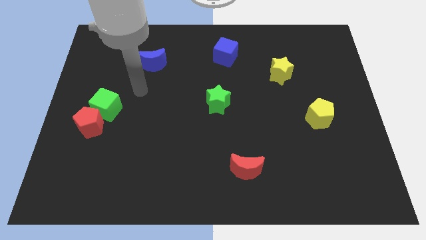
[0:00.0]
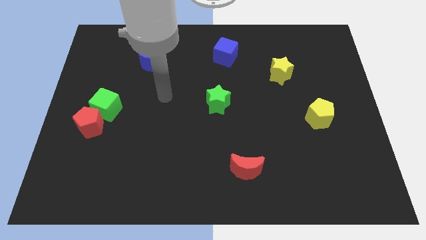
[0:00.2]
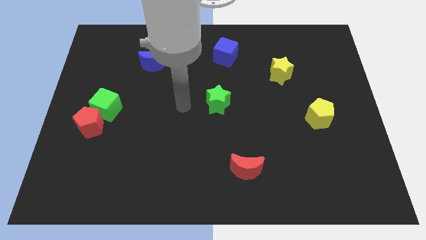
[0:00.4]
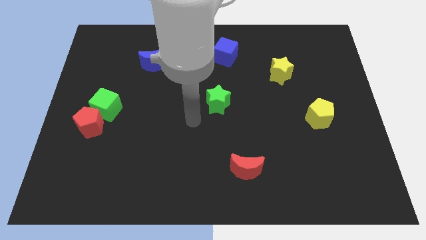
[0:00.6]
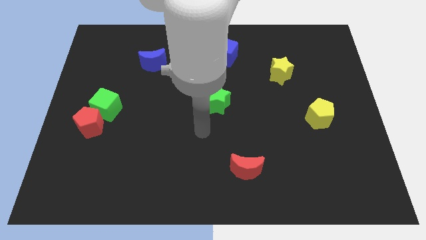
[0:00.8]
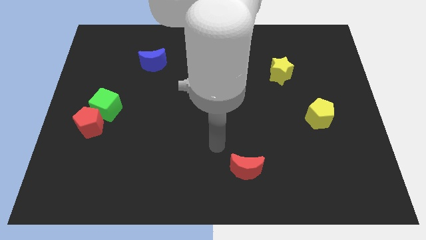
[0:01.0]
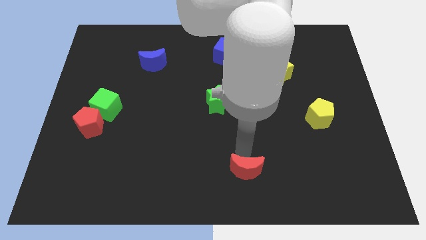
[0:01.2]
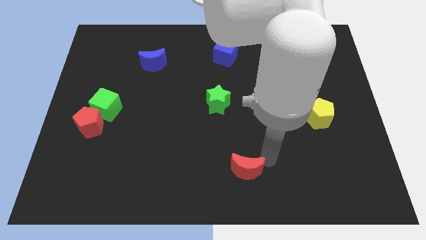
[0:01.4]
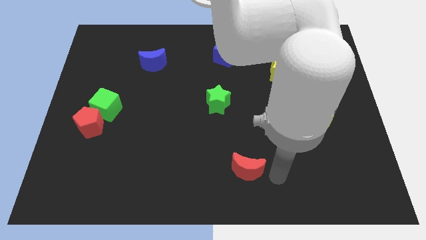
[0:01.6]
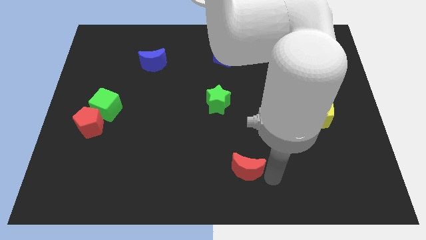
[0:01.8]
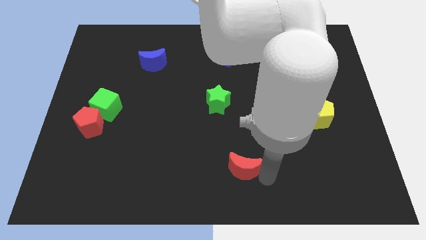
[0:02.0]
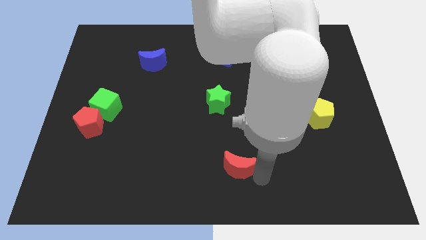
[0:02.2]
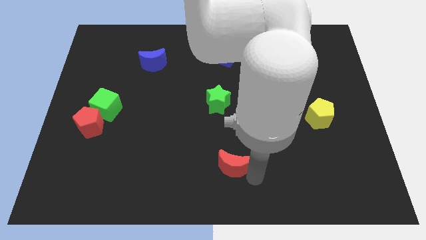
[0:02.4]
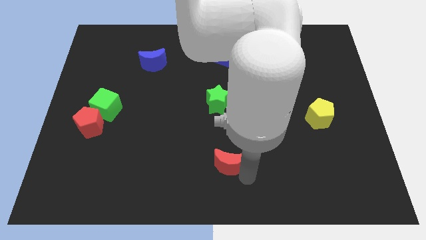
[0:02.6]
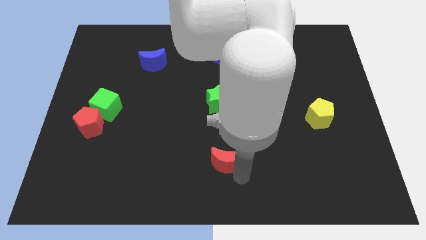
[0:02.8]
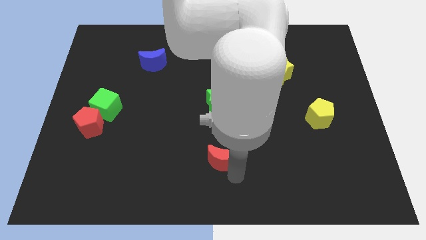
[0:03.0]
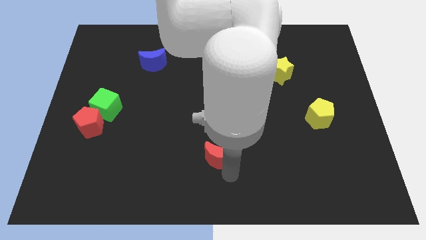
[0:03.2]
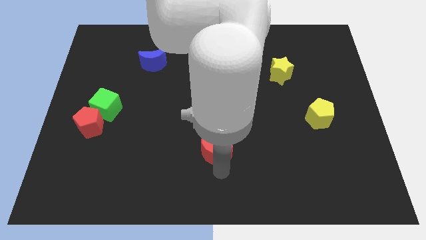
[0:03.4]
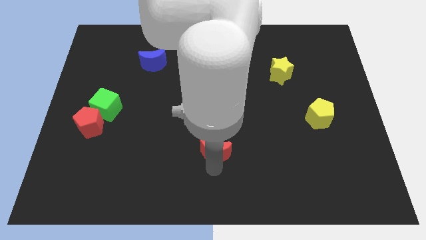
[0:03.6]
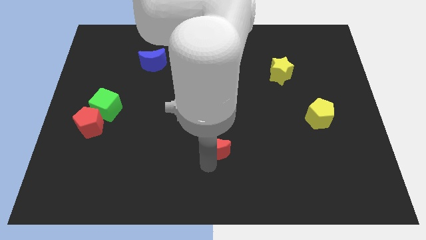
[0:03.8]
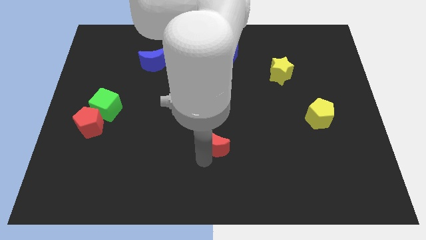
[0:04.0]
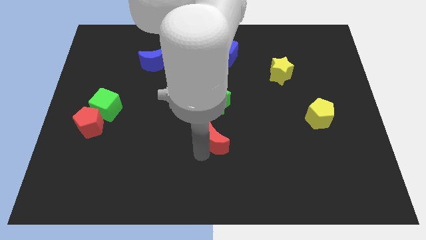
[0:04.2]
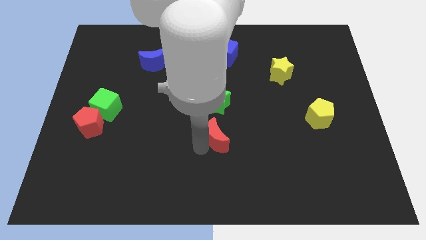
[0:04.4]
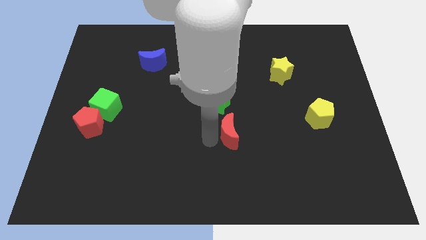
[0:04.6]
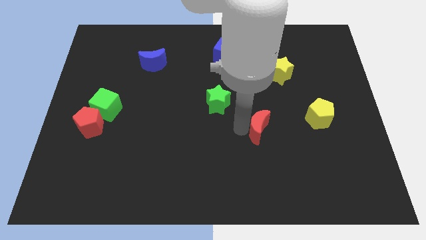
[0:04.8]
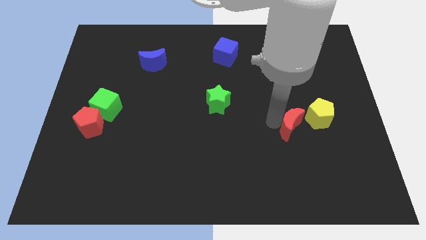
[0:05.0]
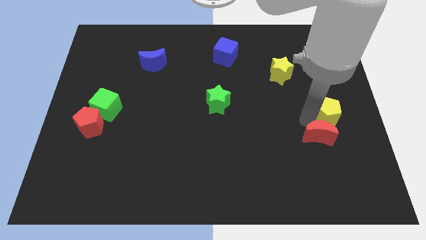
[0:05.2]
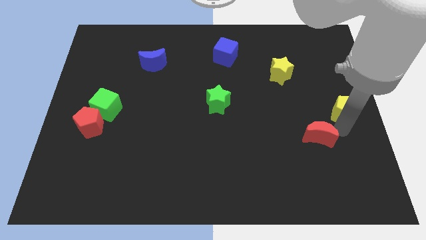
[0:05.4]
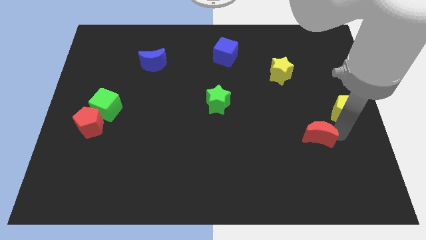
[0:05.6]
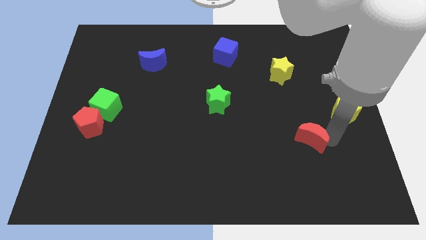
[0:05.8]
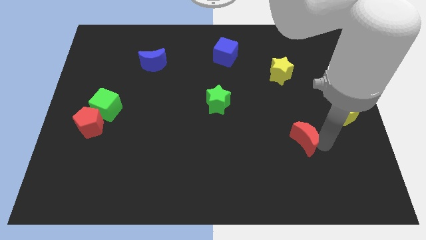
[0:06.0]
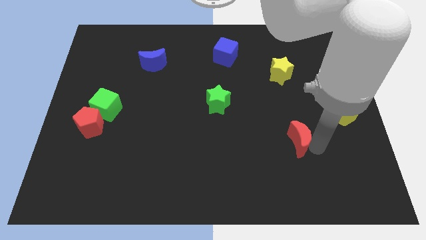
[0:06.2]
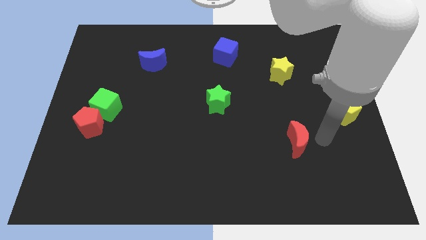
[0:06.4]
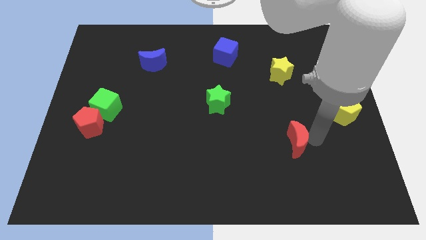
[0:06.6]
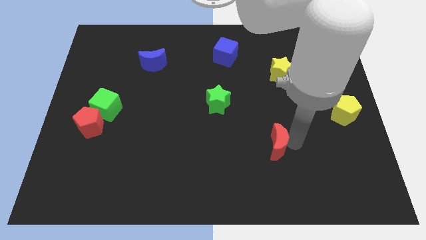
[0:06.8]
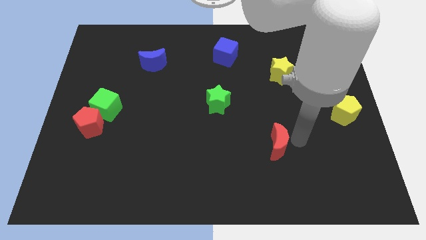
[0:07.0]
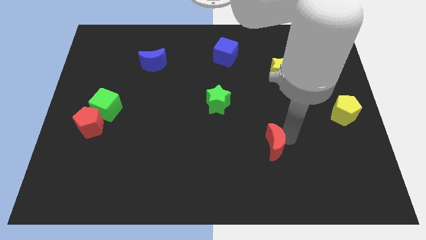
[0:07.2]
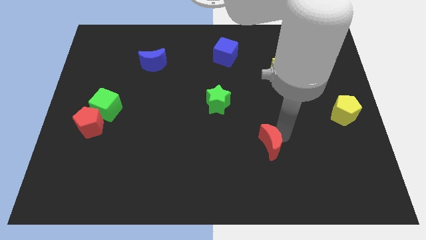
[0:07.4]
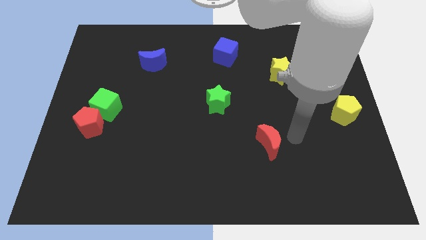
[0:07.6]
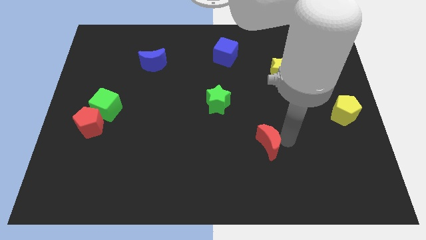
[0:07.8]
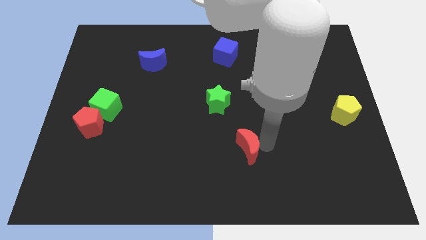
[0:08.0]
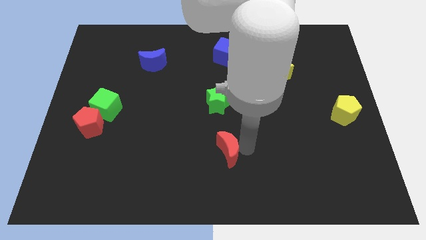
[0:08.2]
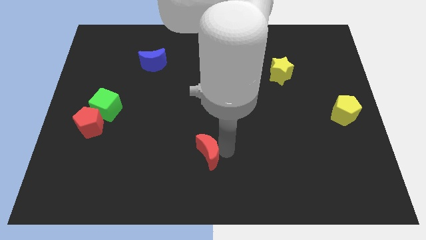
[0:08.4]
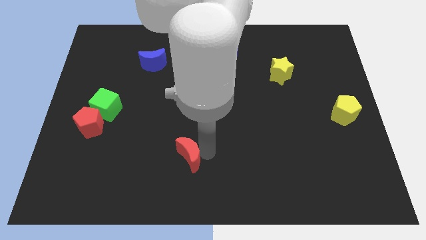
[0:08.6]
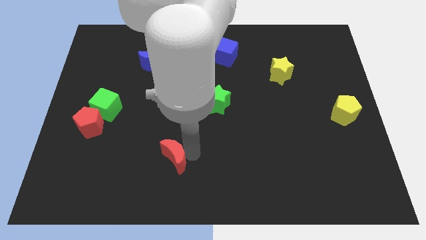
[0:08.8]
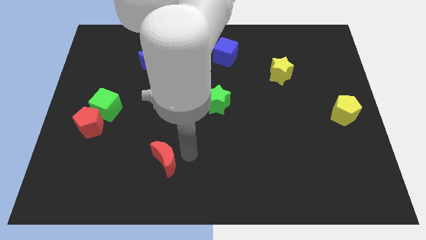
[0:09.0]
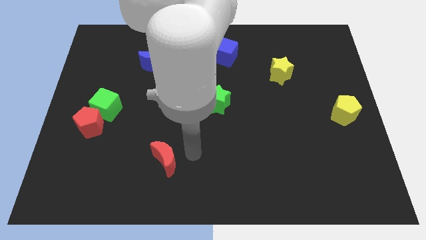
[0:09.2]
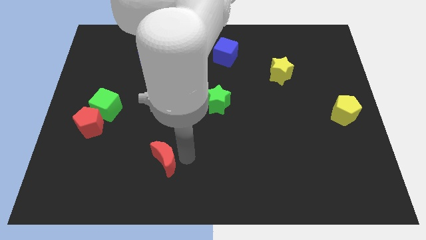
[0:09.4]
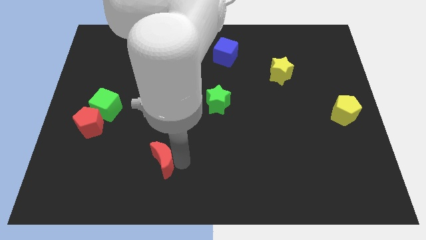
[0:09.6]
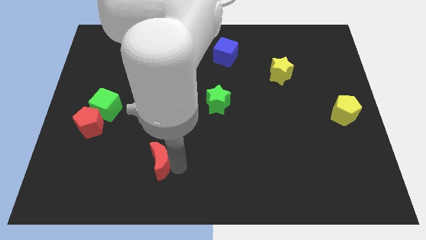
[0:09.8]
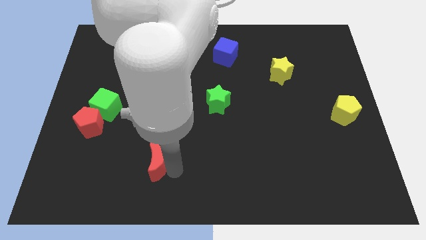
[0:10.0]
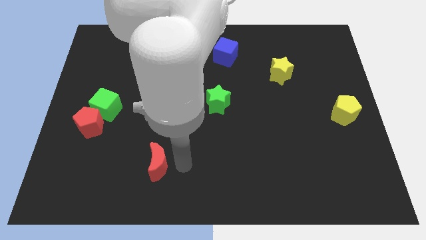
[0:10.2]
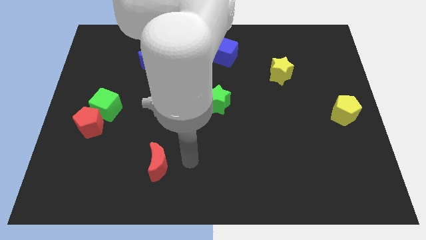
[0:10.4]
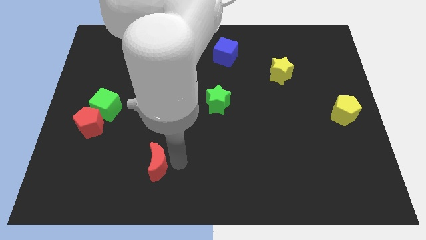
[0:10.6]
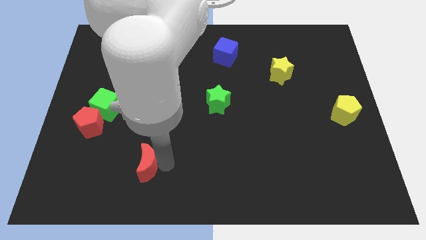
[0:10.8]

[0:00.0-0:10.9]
slide the red moon left

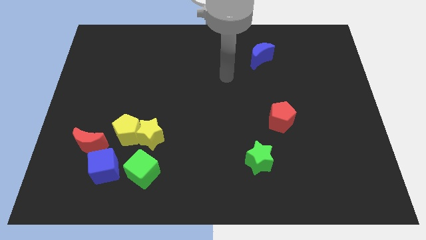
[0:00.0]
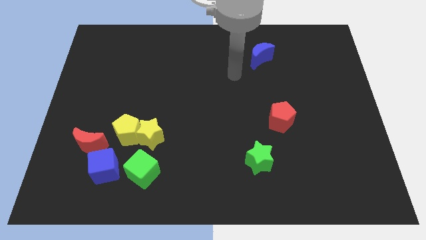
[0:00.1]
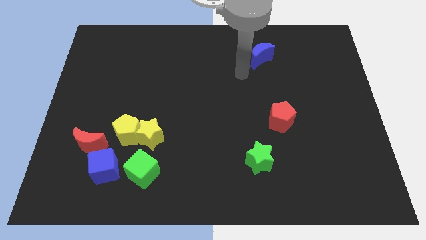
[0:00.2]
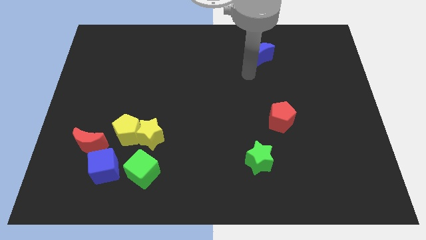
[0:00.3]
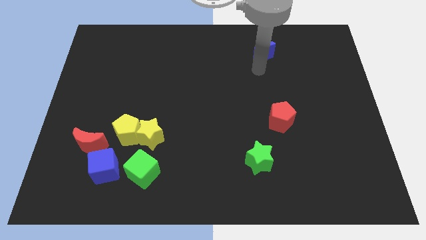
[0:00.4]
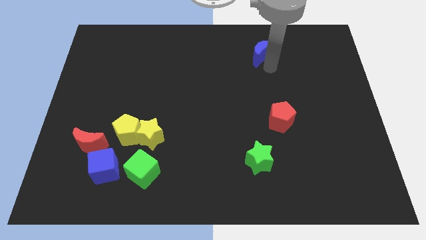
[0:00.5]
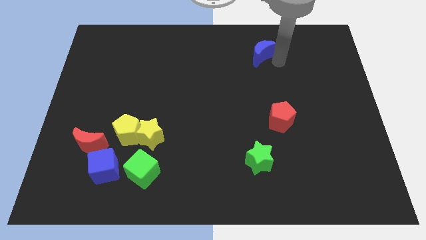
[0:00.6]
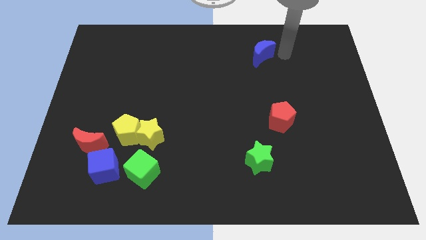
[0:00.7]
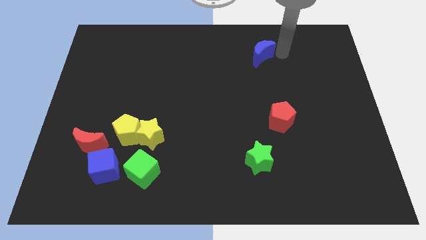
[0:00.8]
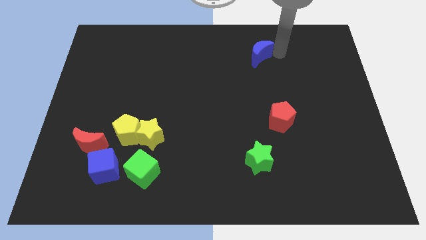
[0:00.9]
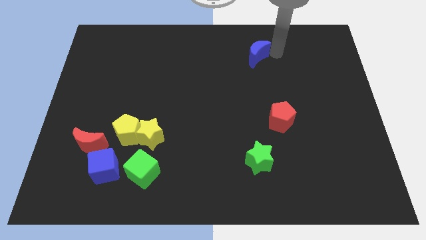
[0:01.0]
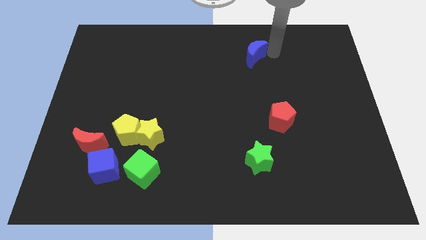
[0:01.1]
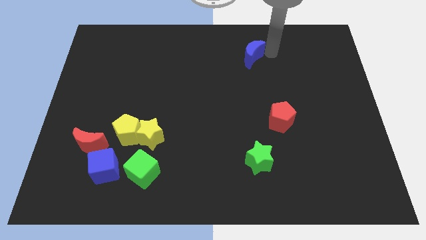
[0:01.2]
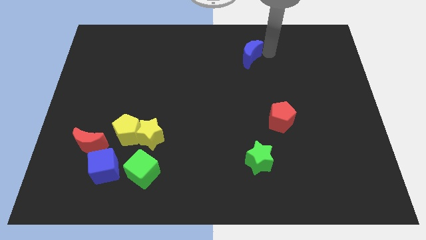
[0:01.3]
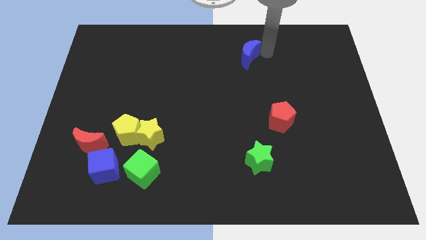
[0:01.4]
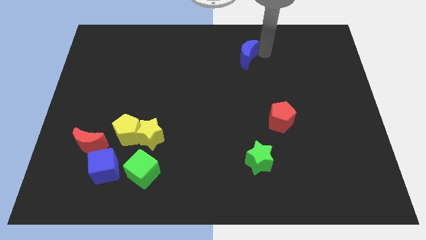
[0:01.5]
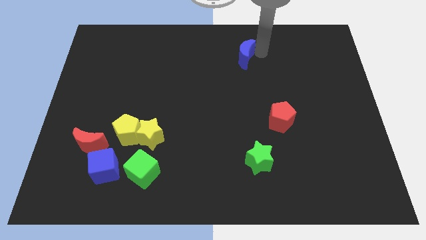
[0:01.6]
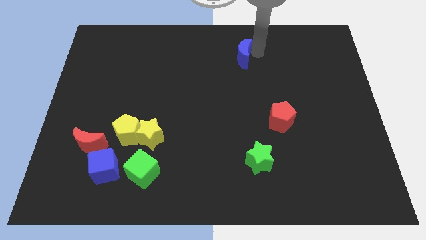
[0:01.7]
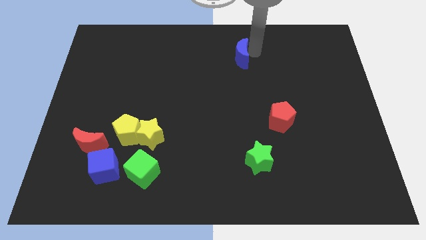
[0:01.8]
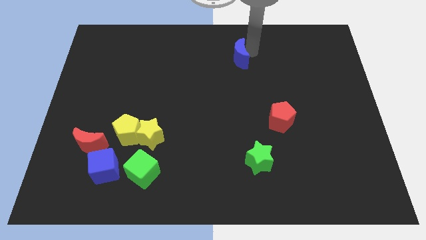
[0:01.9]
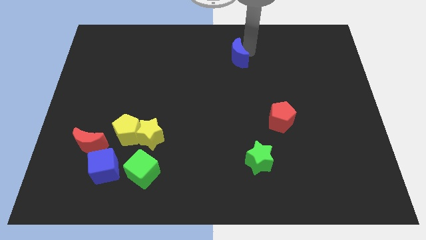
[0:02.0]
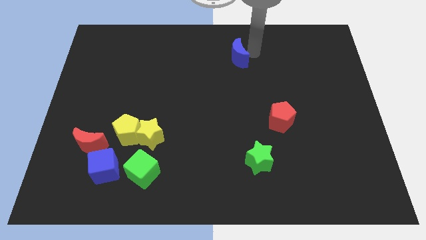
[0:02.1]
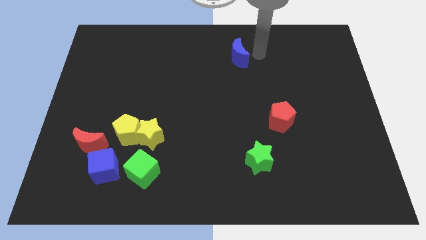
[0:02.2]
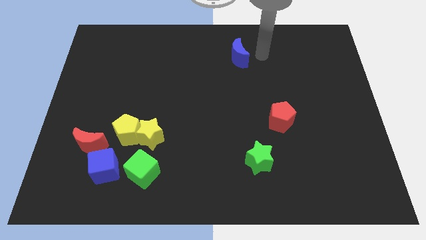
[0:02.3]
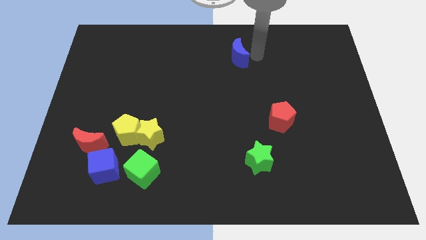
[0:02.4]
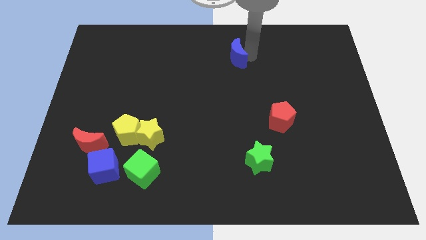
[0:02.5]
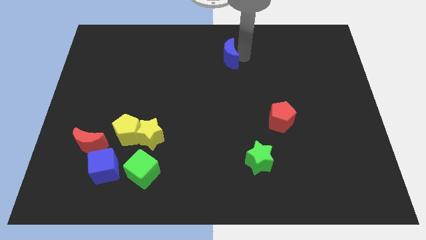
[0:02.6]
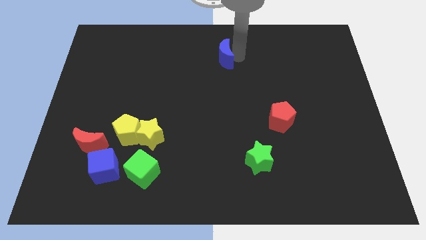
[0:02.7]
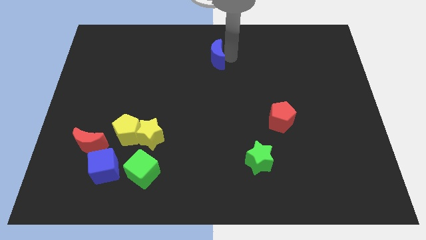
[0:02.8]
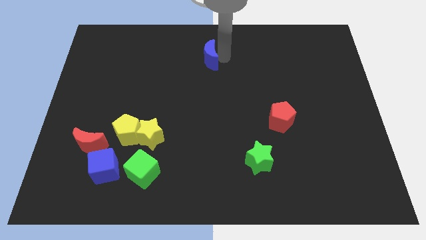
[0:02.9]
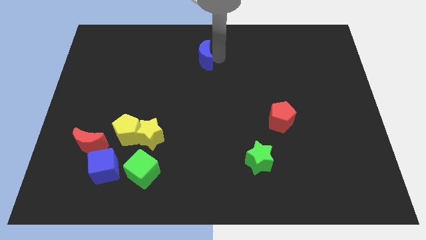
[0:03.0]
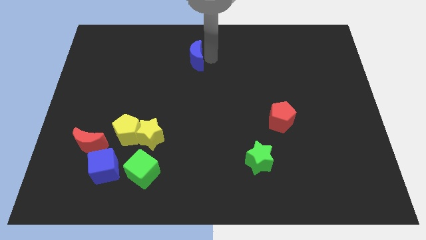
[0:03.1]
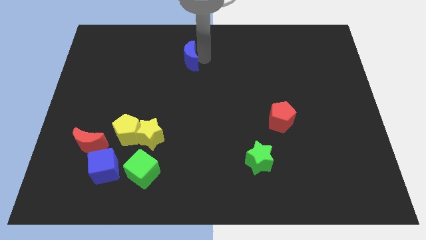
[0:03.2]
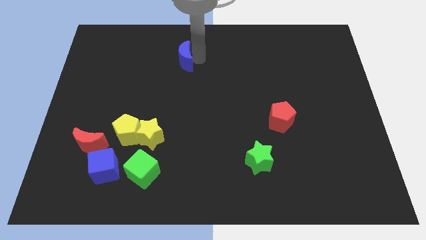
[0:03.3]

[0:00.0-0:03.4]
push the blue moon to the left
